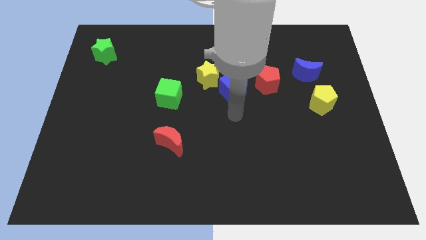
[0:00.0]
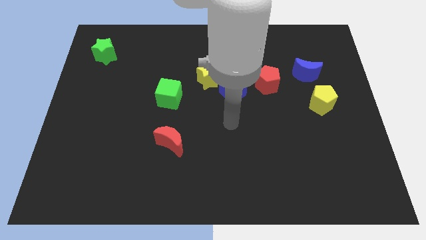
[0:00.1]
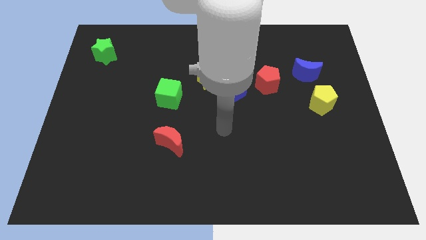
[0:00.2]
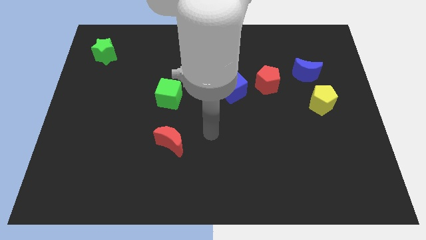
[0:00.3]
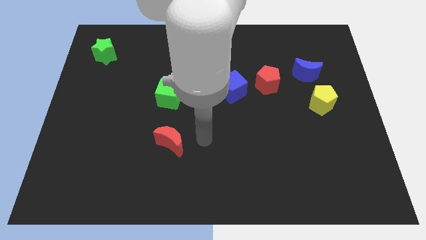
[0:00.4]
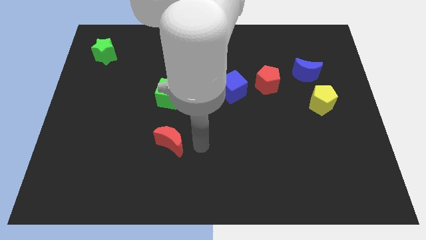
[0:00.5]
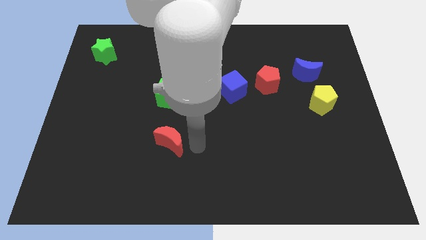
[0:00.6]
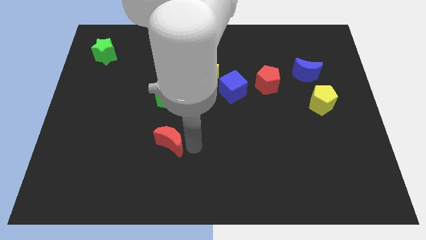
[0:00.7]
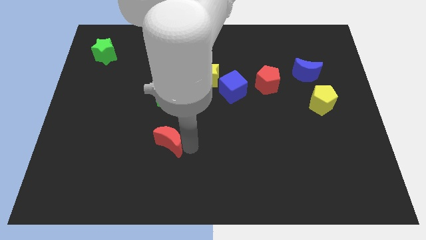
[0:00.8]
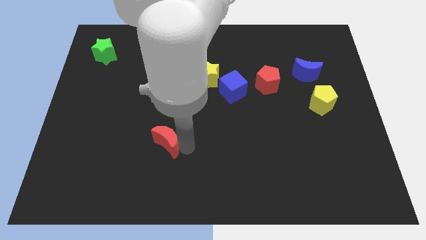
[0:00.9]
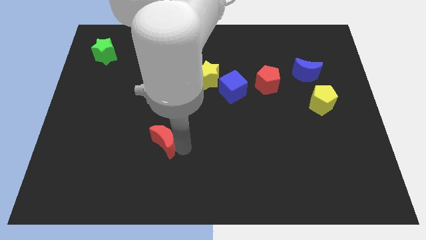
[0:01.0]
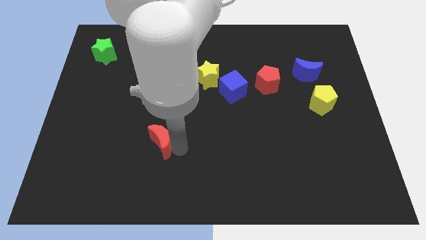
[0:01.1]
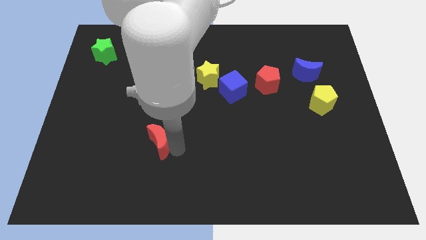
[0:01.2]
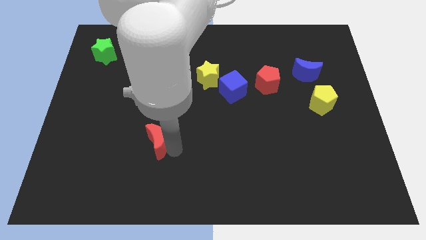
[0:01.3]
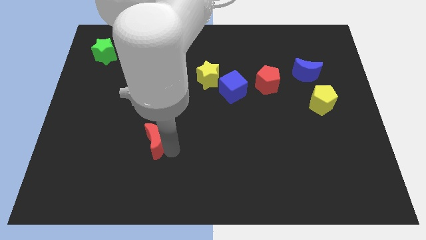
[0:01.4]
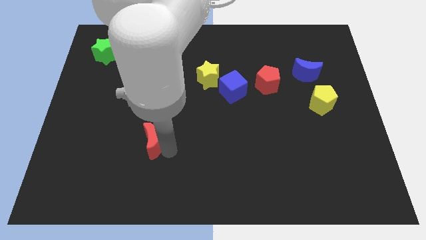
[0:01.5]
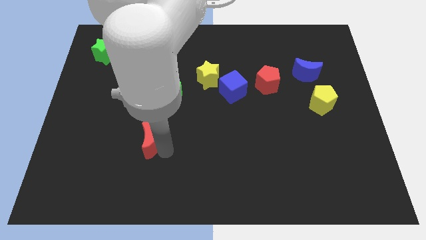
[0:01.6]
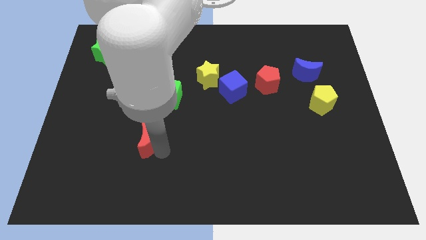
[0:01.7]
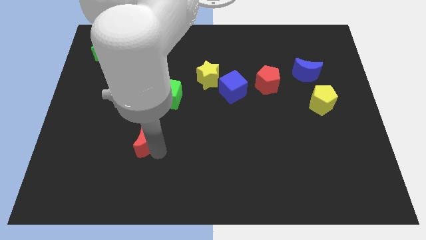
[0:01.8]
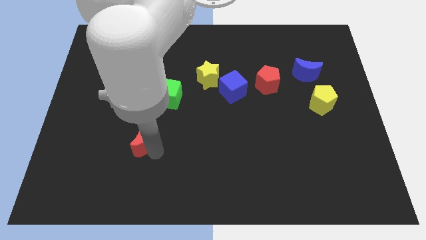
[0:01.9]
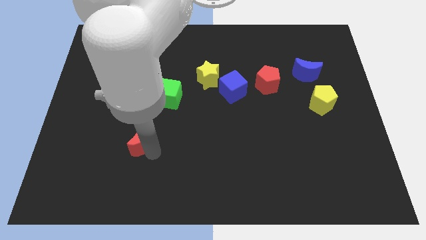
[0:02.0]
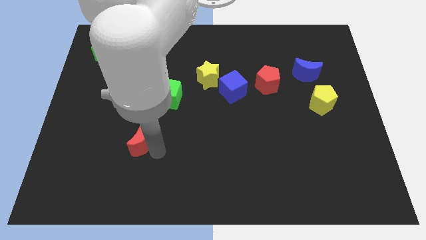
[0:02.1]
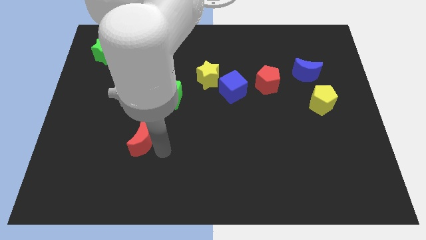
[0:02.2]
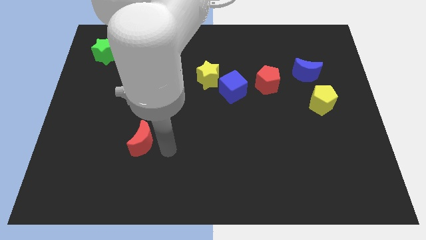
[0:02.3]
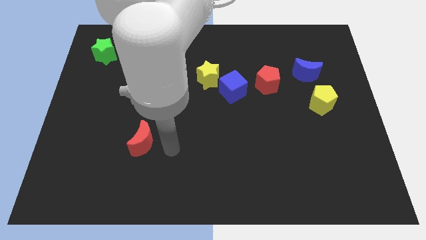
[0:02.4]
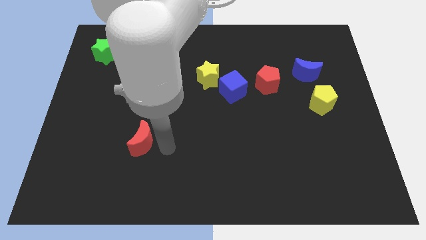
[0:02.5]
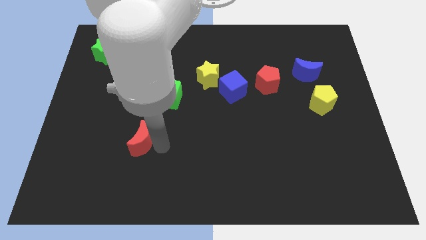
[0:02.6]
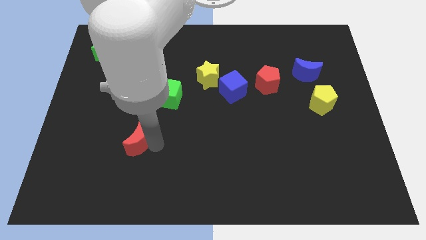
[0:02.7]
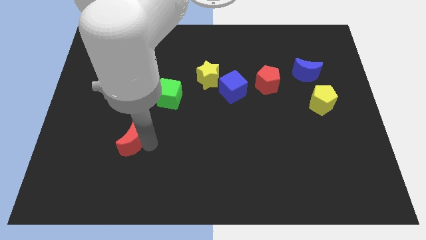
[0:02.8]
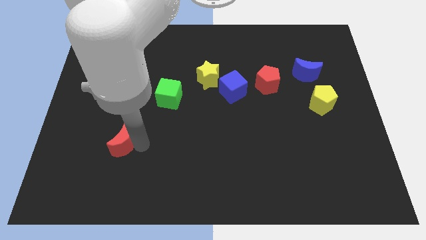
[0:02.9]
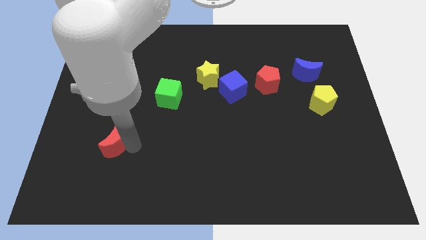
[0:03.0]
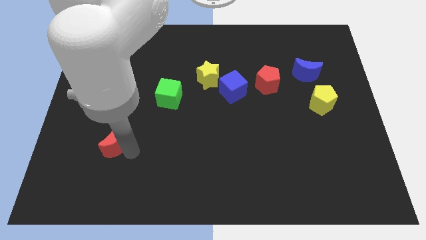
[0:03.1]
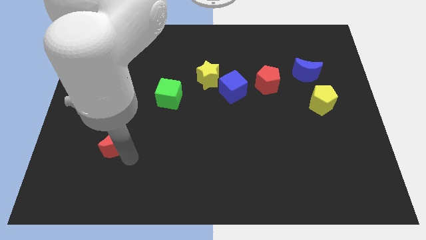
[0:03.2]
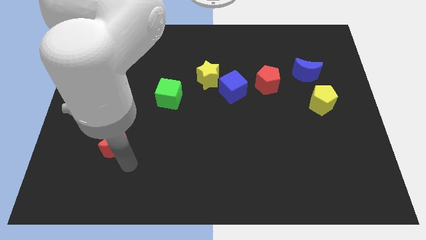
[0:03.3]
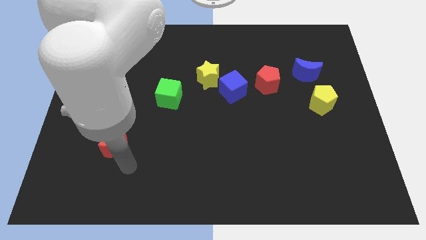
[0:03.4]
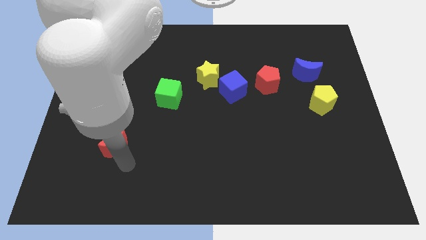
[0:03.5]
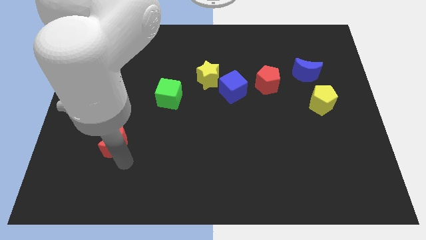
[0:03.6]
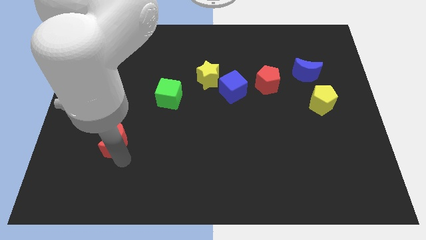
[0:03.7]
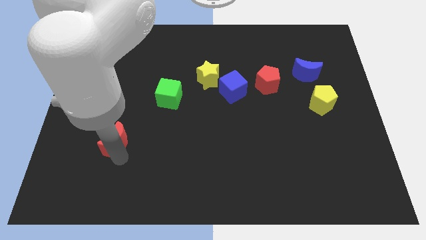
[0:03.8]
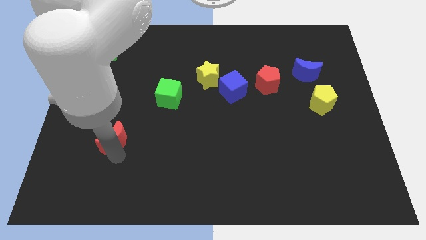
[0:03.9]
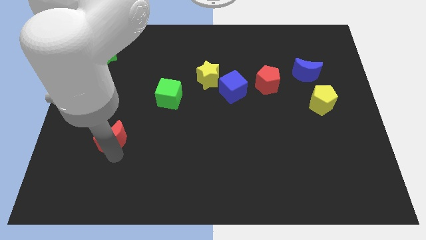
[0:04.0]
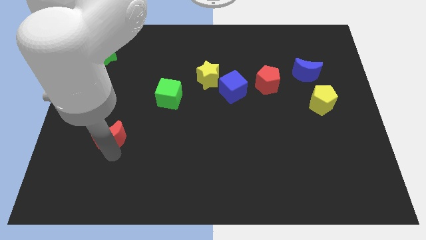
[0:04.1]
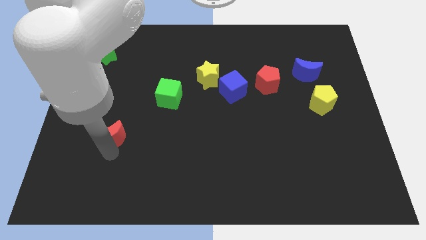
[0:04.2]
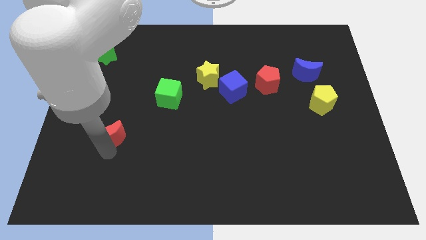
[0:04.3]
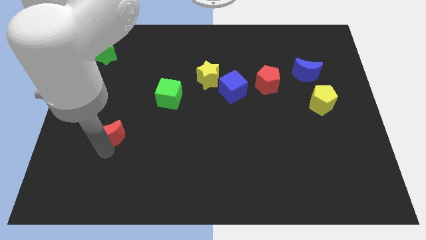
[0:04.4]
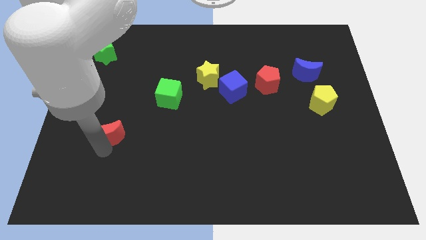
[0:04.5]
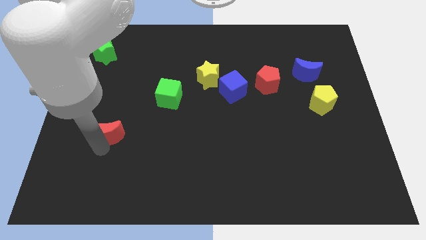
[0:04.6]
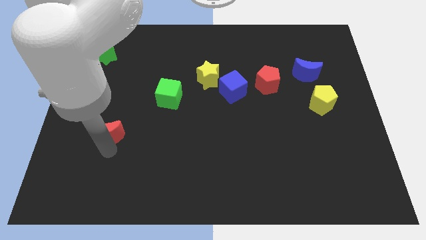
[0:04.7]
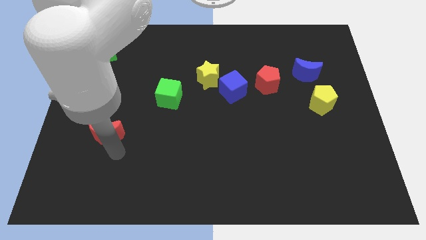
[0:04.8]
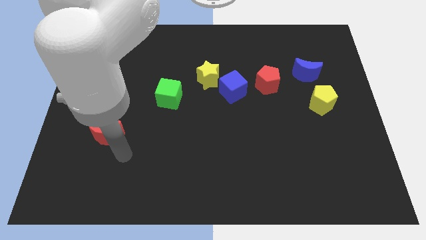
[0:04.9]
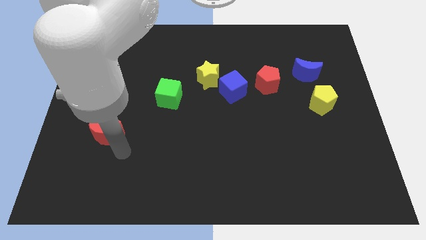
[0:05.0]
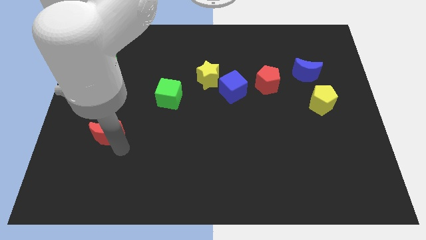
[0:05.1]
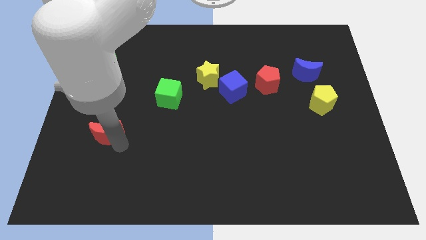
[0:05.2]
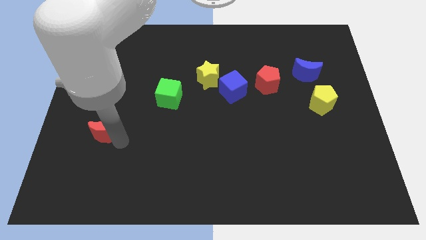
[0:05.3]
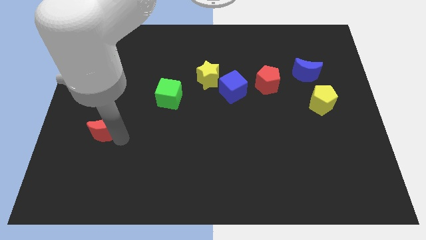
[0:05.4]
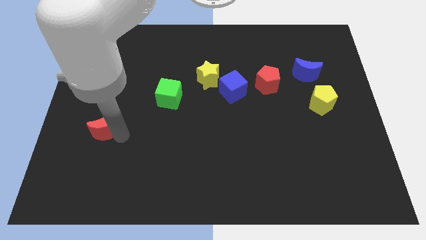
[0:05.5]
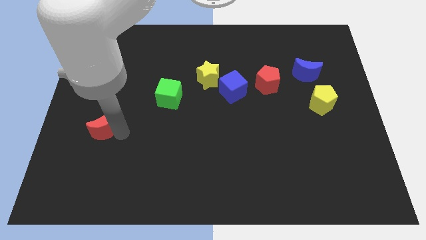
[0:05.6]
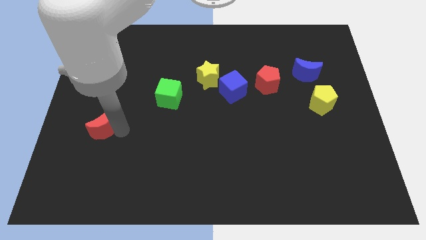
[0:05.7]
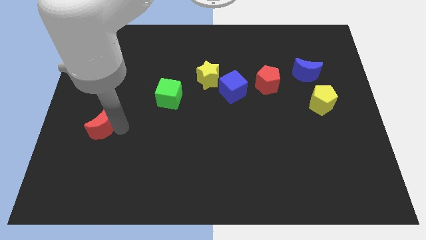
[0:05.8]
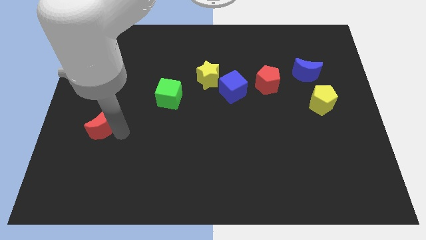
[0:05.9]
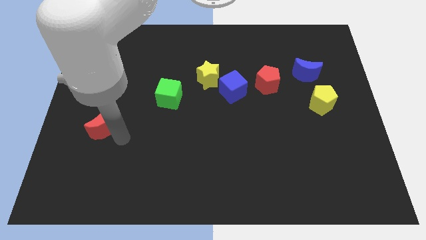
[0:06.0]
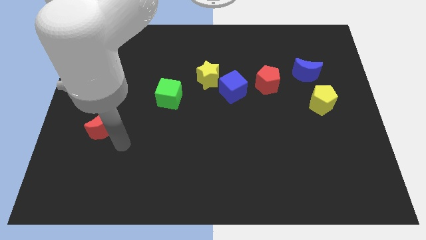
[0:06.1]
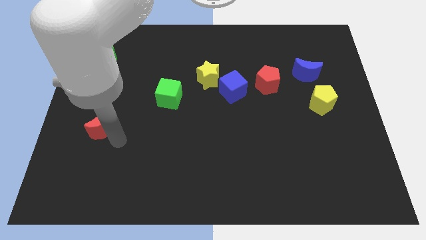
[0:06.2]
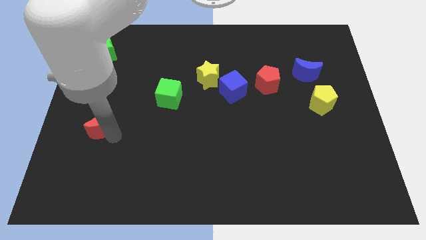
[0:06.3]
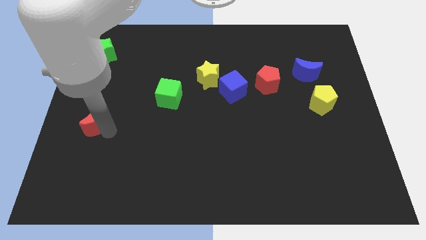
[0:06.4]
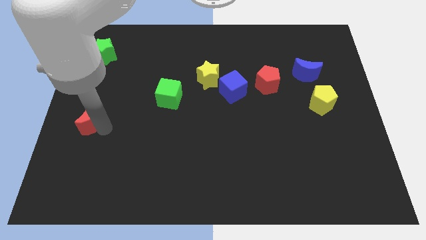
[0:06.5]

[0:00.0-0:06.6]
move the red moon to the left side of the board
